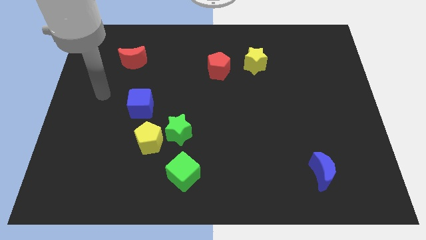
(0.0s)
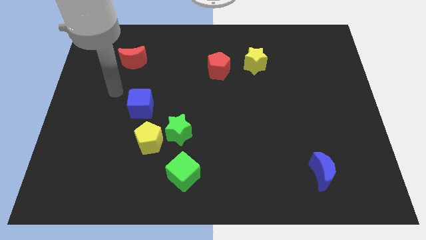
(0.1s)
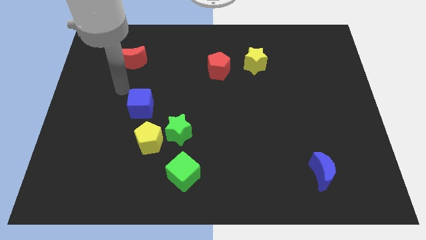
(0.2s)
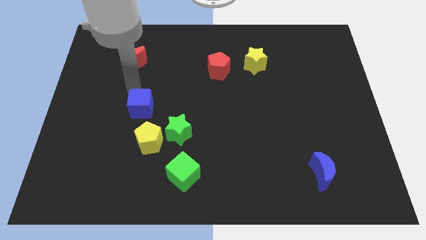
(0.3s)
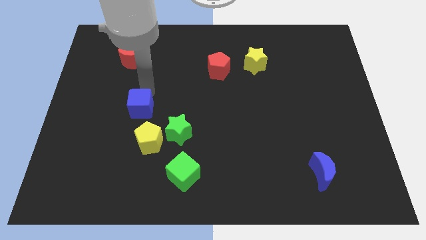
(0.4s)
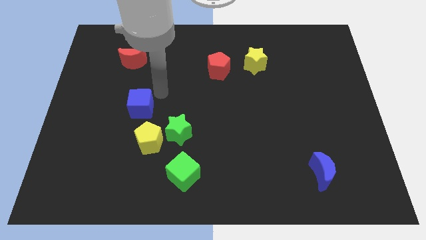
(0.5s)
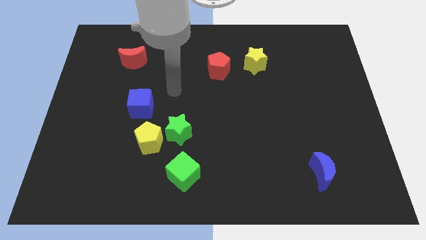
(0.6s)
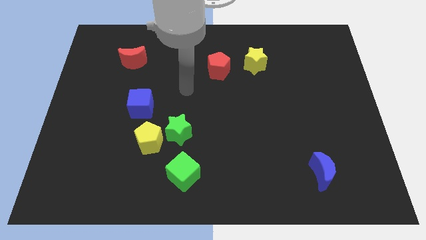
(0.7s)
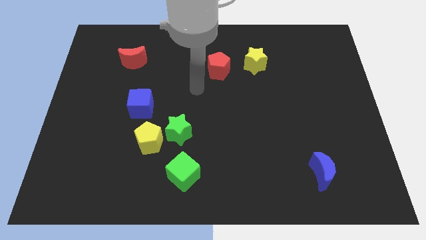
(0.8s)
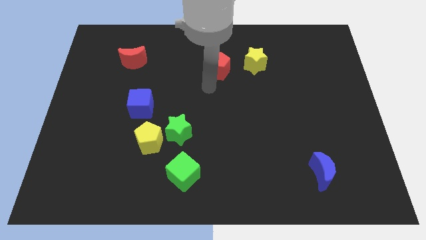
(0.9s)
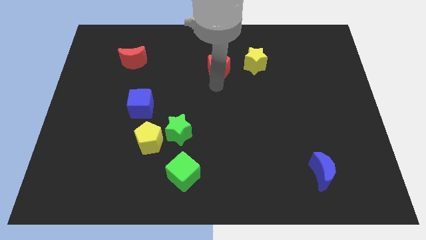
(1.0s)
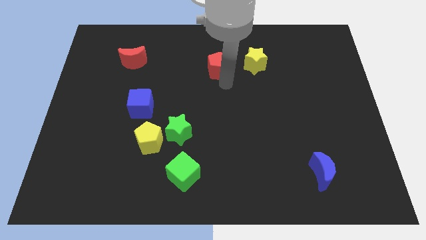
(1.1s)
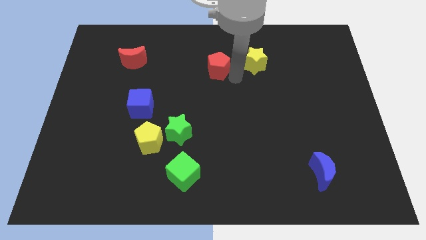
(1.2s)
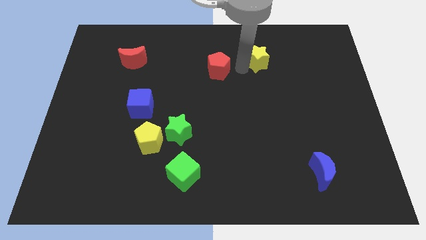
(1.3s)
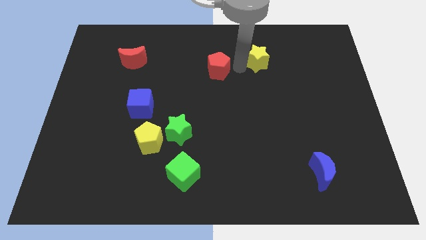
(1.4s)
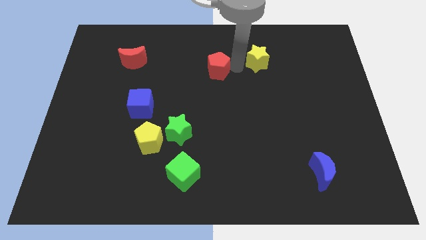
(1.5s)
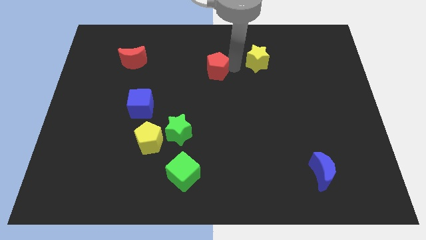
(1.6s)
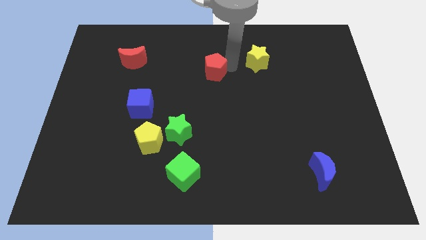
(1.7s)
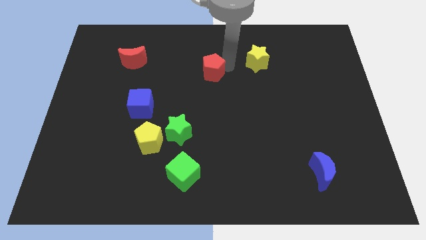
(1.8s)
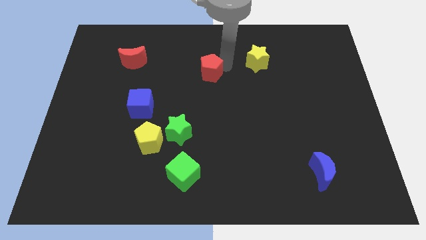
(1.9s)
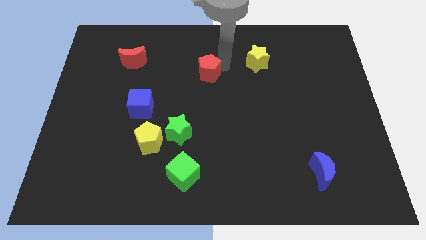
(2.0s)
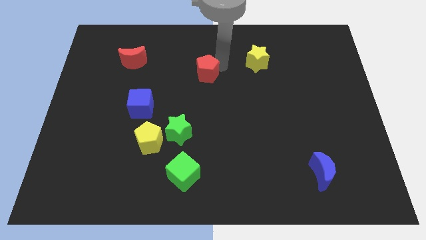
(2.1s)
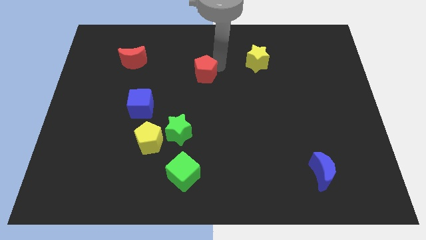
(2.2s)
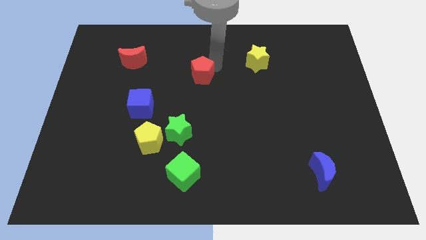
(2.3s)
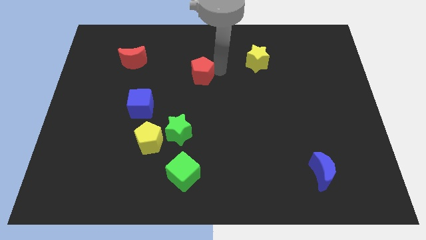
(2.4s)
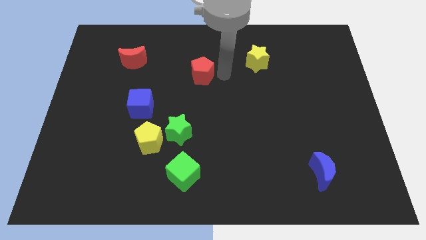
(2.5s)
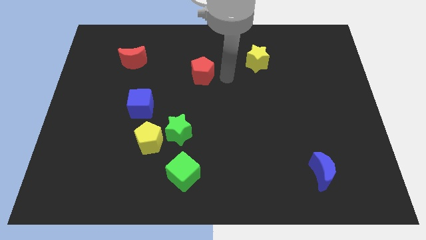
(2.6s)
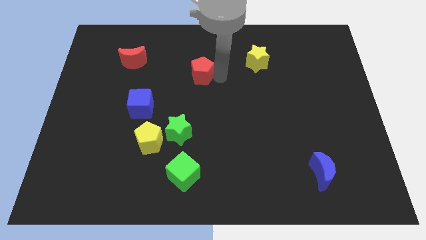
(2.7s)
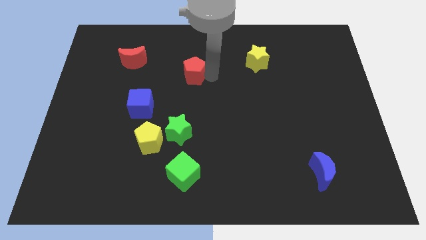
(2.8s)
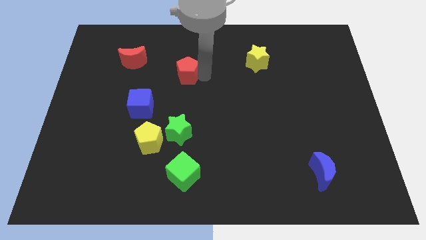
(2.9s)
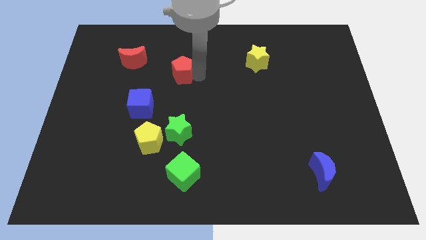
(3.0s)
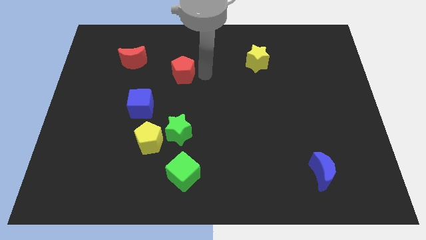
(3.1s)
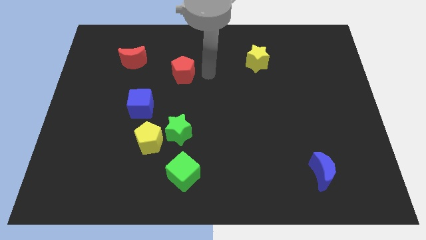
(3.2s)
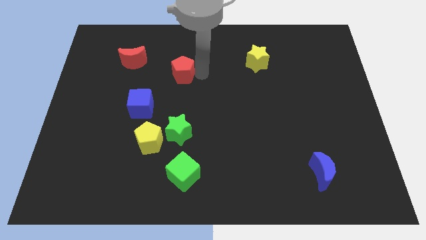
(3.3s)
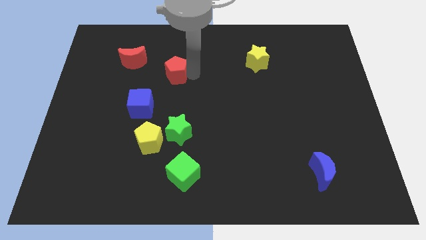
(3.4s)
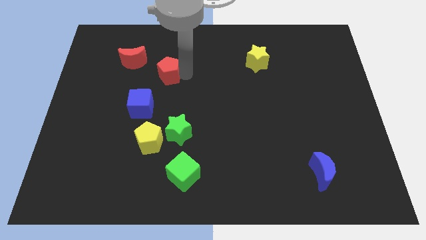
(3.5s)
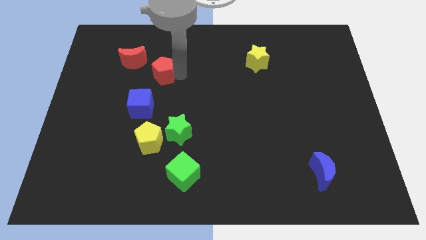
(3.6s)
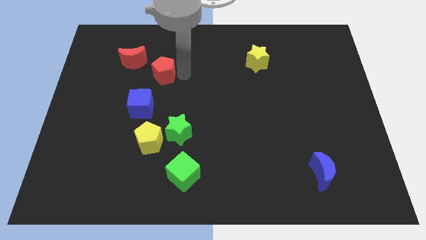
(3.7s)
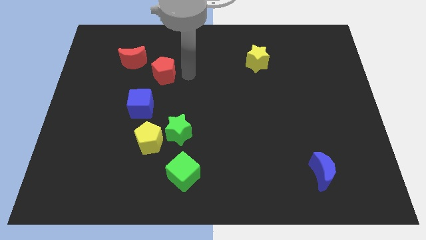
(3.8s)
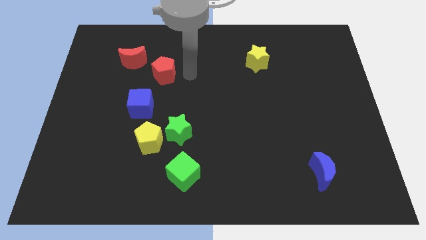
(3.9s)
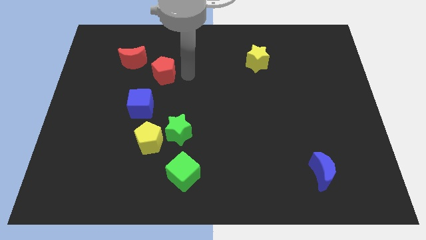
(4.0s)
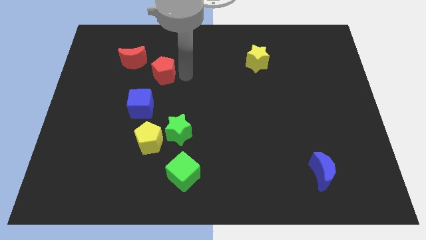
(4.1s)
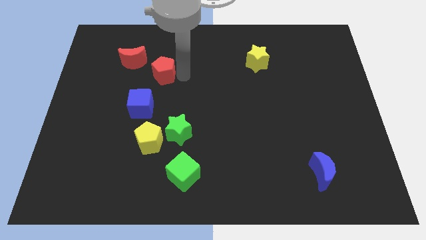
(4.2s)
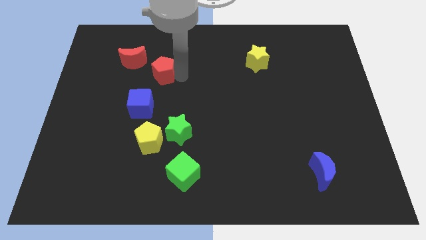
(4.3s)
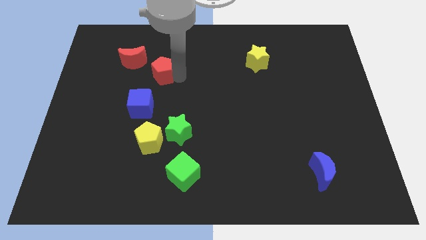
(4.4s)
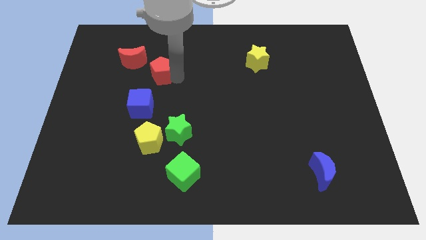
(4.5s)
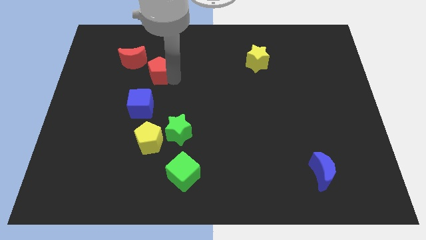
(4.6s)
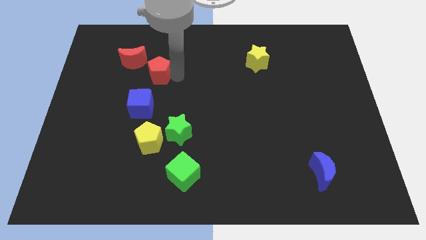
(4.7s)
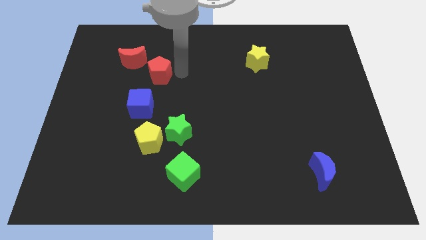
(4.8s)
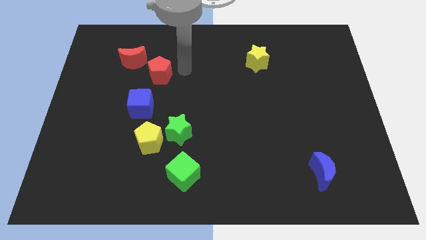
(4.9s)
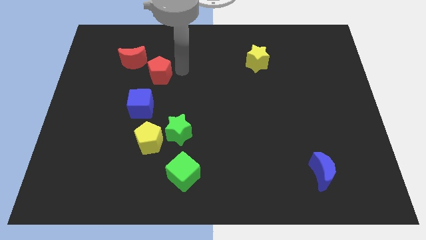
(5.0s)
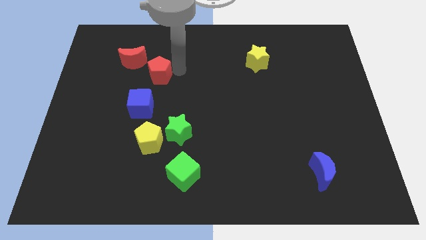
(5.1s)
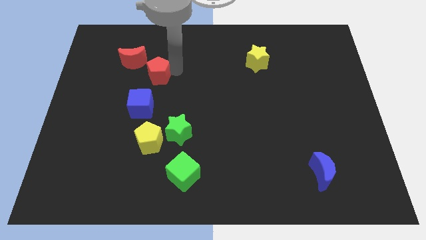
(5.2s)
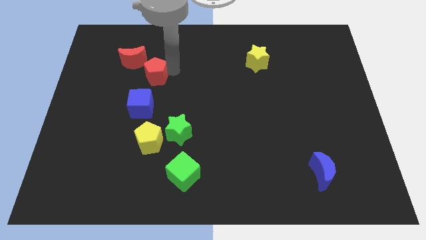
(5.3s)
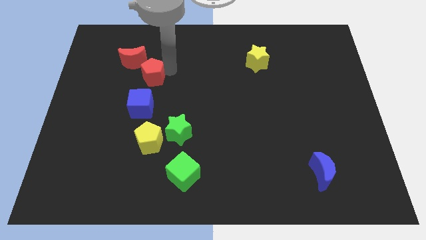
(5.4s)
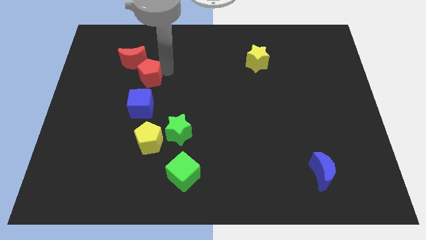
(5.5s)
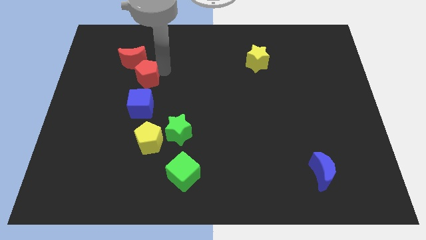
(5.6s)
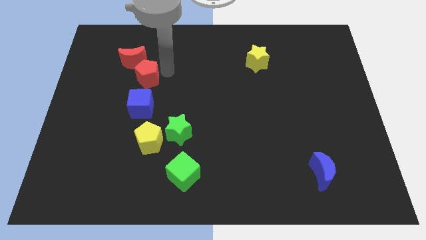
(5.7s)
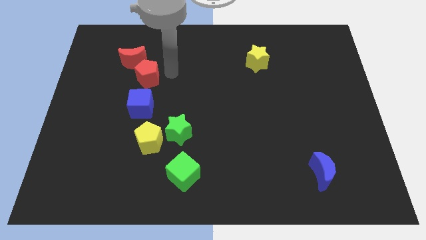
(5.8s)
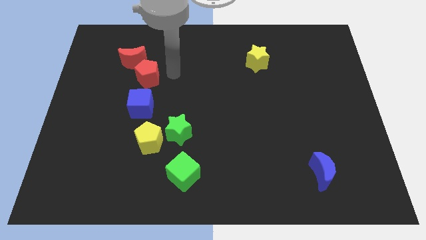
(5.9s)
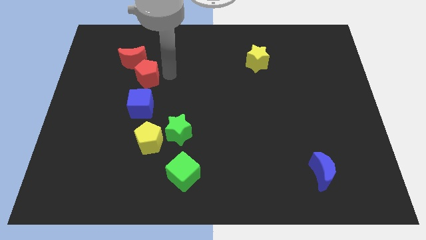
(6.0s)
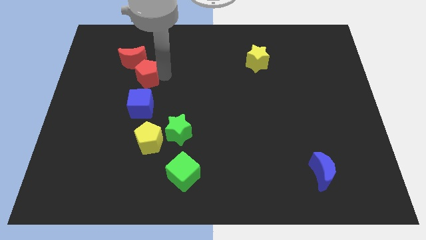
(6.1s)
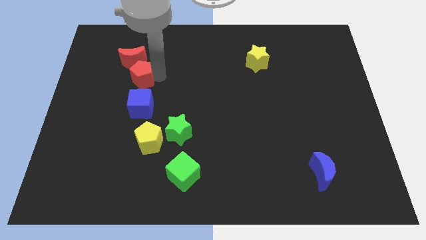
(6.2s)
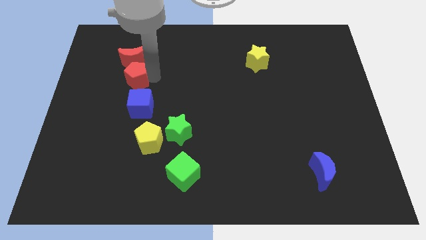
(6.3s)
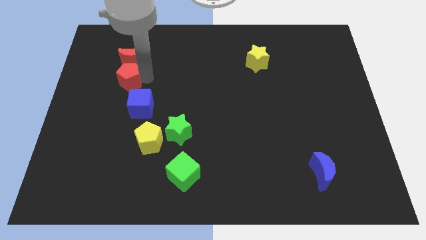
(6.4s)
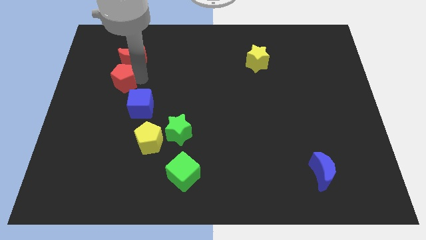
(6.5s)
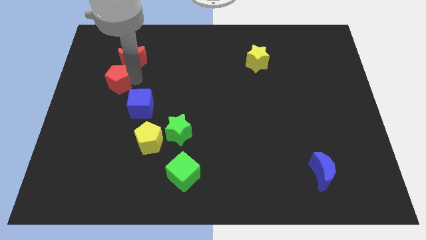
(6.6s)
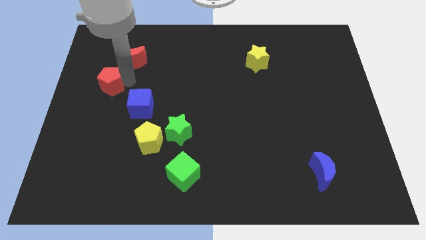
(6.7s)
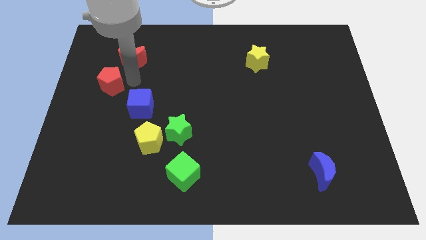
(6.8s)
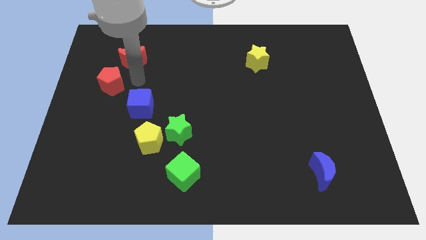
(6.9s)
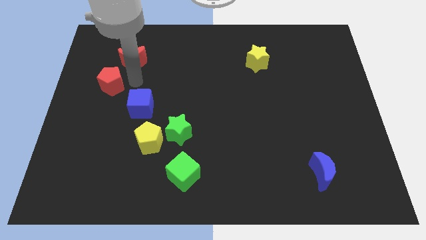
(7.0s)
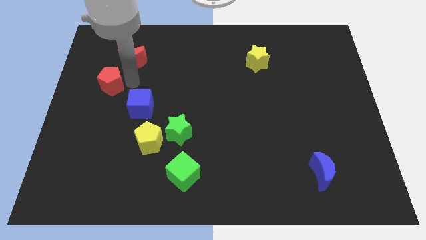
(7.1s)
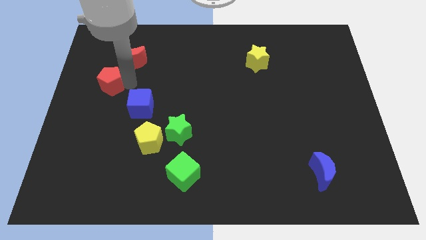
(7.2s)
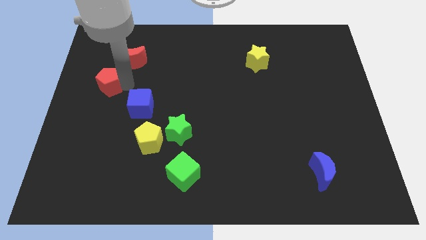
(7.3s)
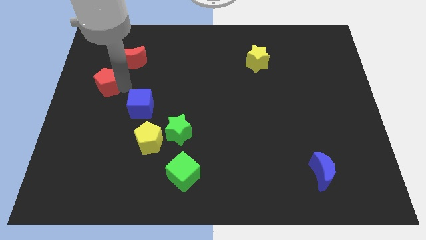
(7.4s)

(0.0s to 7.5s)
put the red pentagon to the left side of the board
